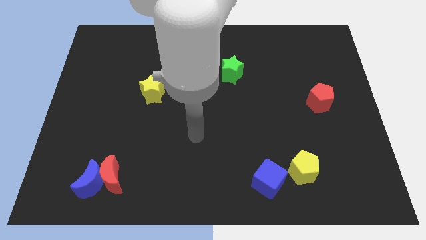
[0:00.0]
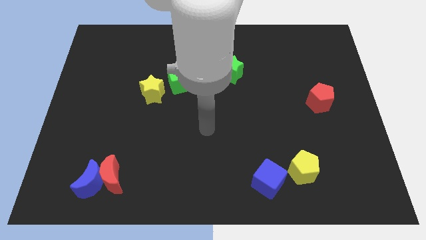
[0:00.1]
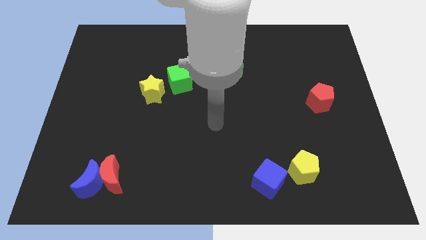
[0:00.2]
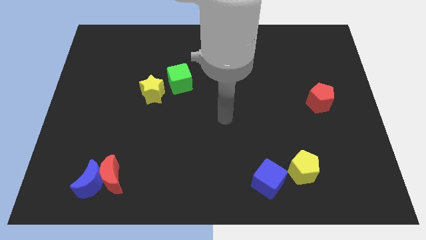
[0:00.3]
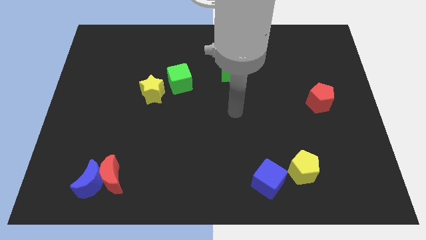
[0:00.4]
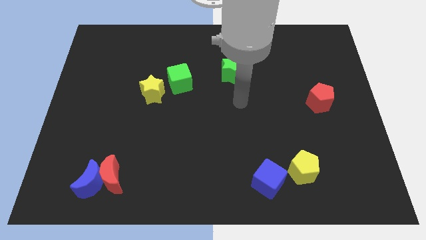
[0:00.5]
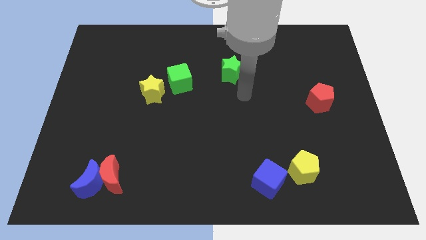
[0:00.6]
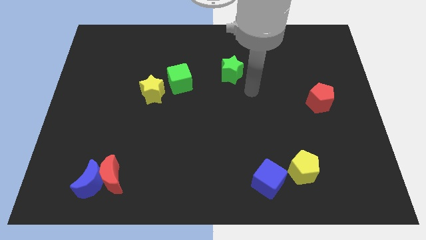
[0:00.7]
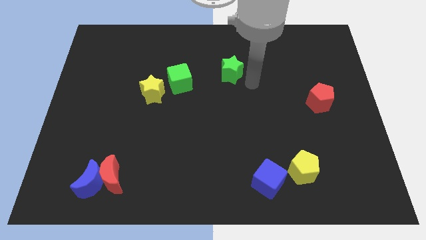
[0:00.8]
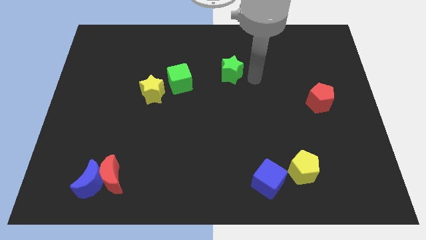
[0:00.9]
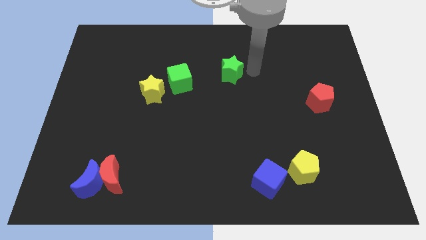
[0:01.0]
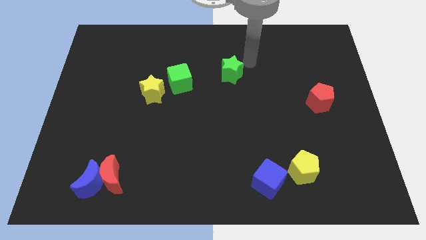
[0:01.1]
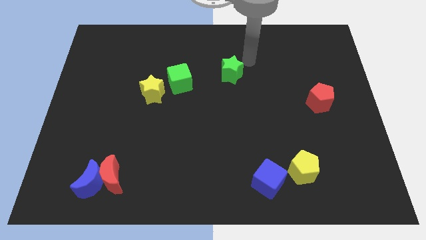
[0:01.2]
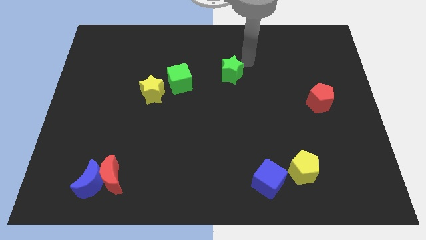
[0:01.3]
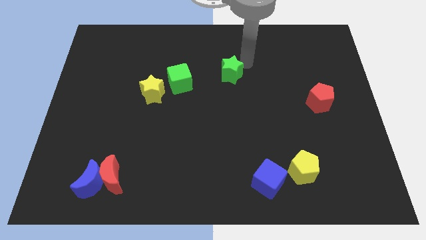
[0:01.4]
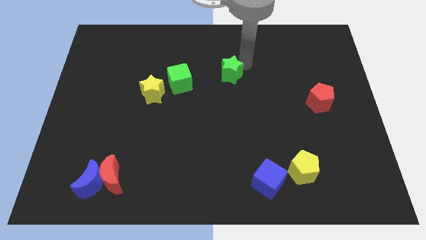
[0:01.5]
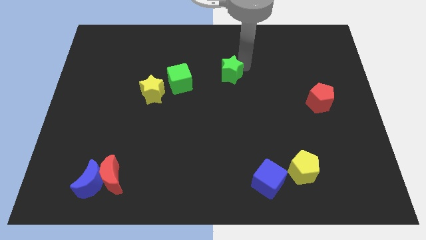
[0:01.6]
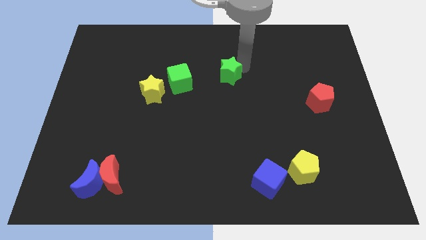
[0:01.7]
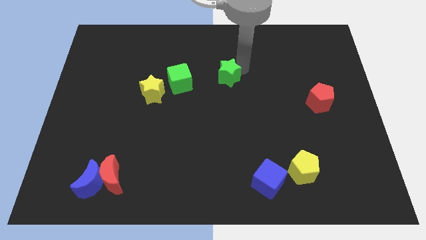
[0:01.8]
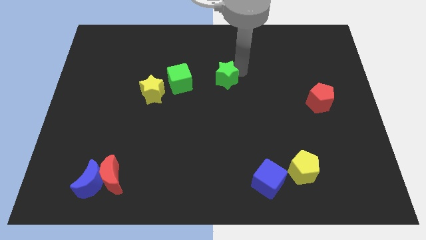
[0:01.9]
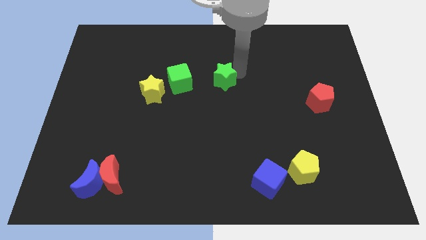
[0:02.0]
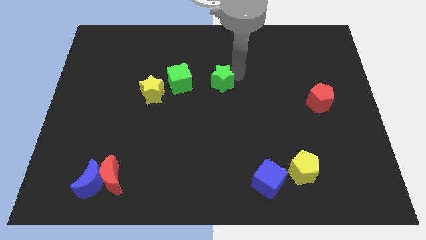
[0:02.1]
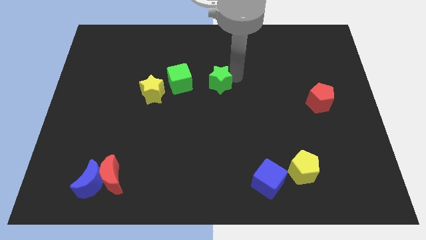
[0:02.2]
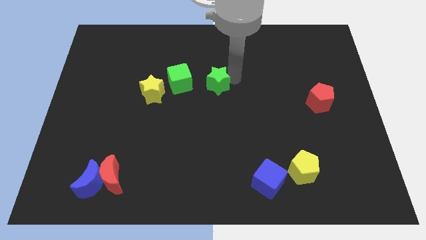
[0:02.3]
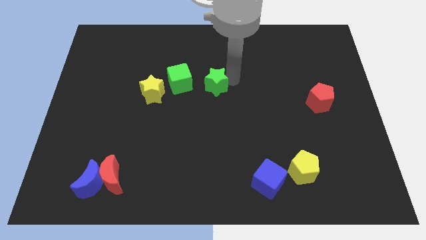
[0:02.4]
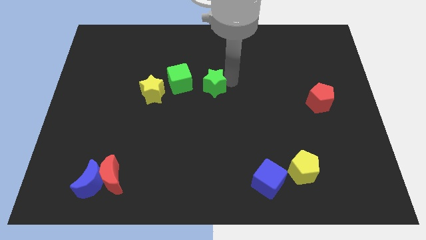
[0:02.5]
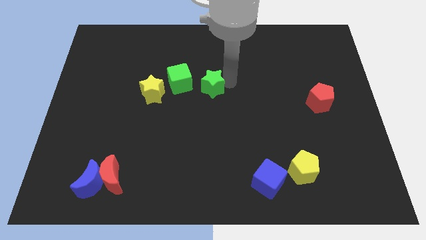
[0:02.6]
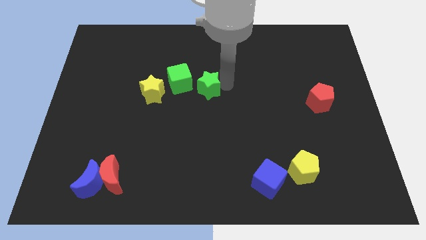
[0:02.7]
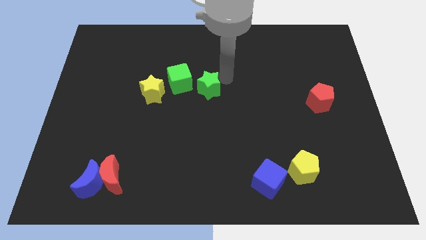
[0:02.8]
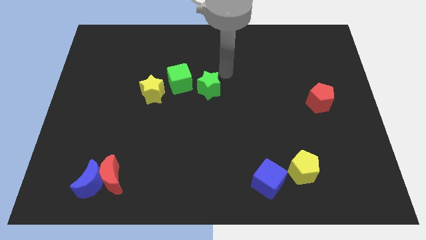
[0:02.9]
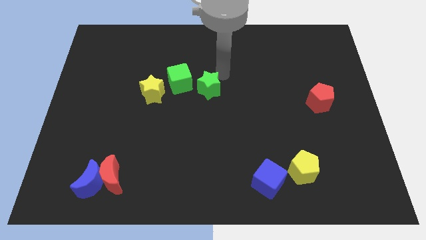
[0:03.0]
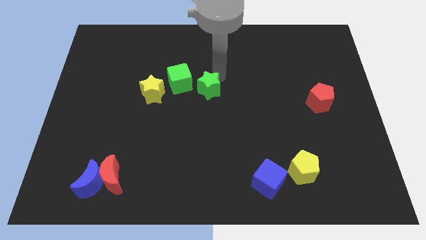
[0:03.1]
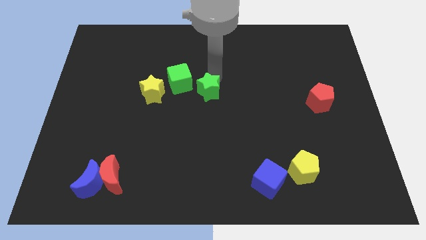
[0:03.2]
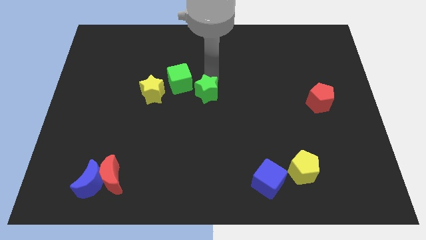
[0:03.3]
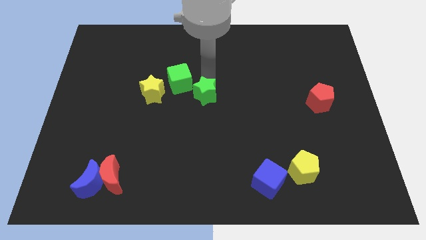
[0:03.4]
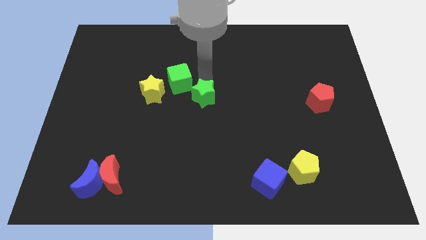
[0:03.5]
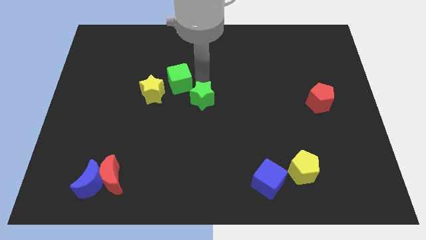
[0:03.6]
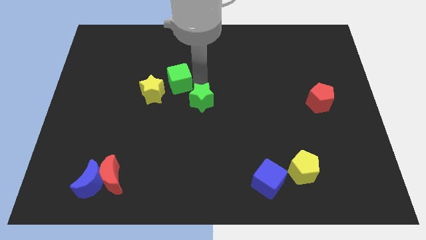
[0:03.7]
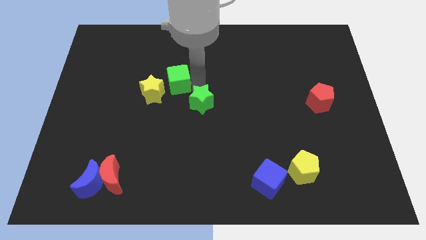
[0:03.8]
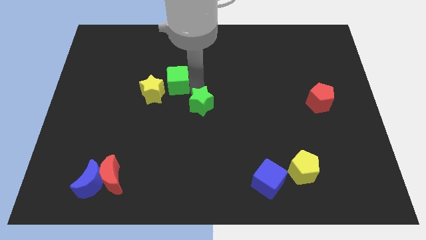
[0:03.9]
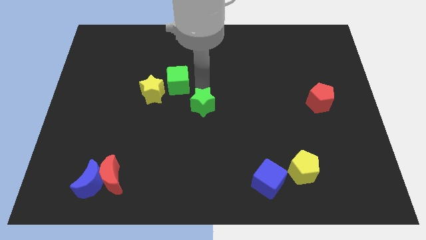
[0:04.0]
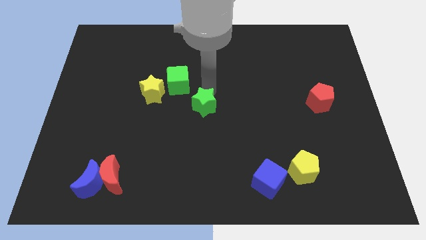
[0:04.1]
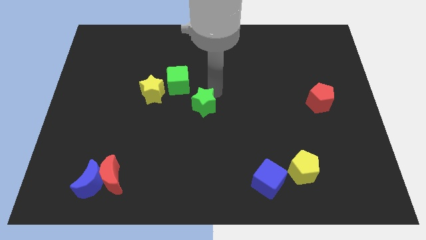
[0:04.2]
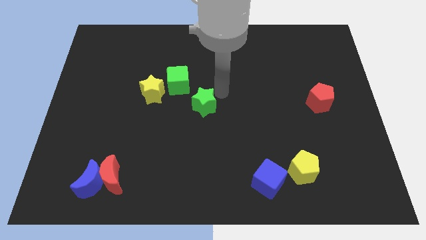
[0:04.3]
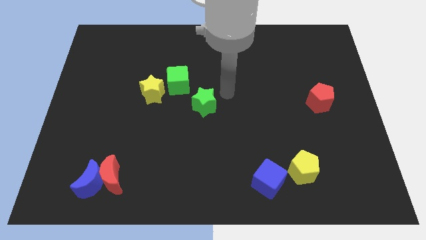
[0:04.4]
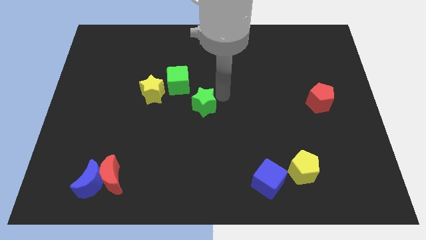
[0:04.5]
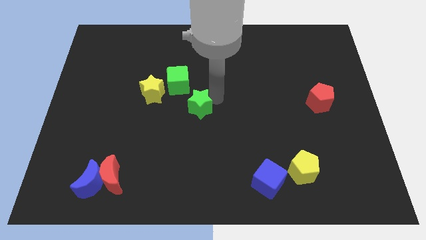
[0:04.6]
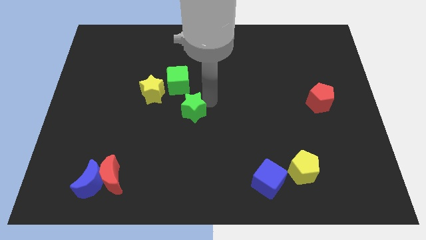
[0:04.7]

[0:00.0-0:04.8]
put the green star to the bottom side of the green cube

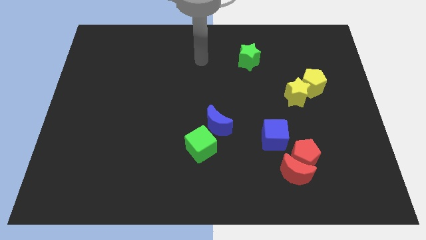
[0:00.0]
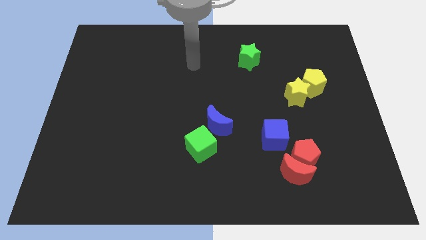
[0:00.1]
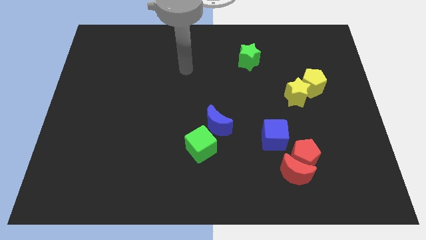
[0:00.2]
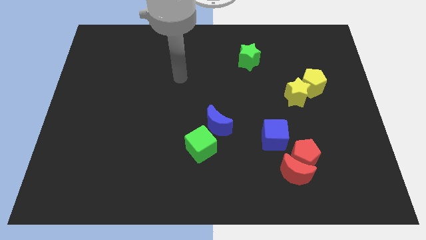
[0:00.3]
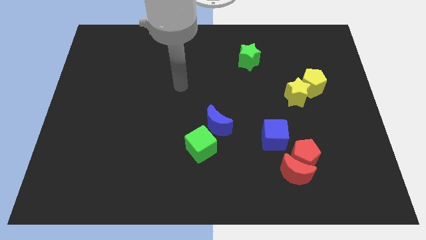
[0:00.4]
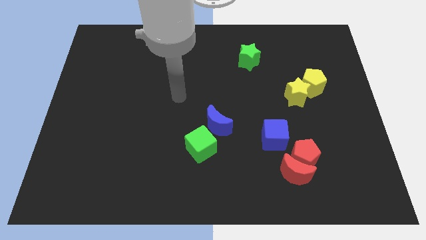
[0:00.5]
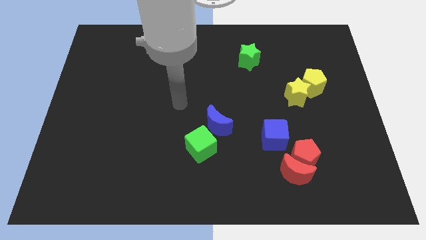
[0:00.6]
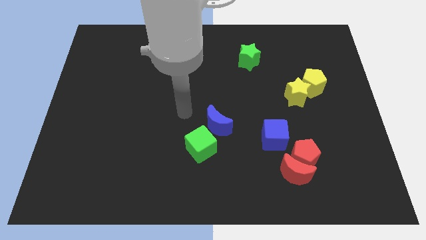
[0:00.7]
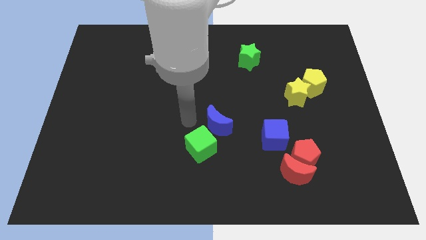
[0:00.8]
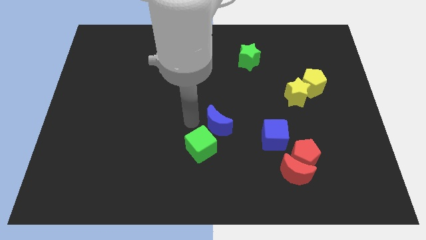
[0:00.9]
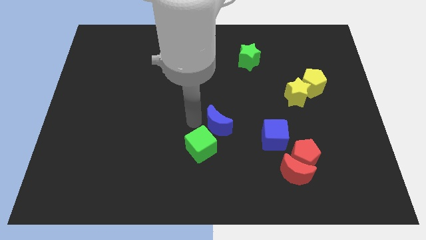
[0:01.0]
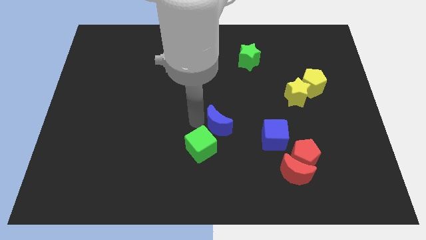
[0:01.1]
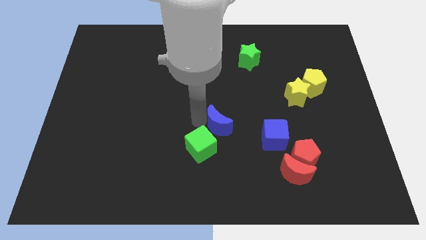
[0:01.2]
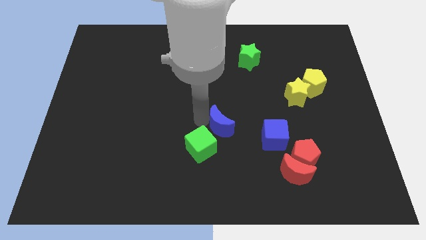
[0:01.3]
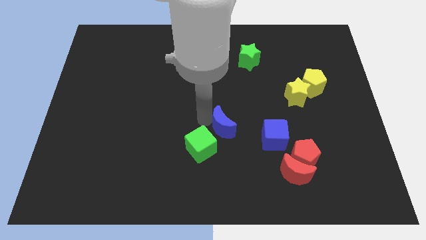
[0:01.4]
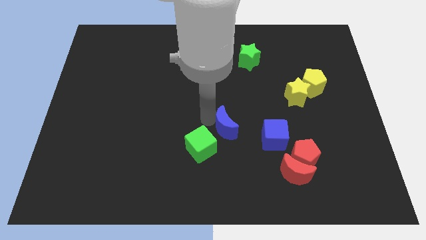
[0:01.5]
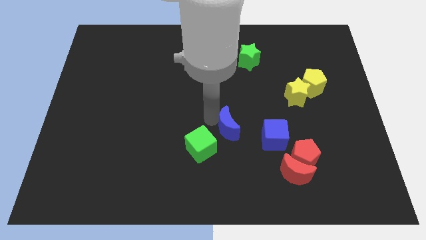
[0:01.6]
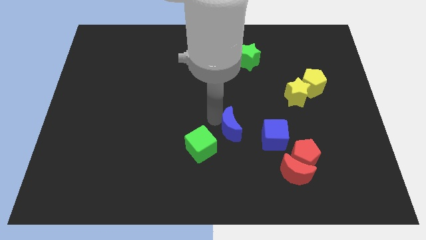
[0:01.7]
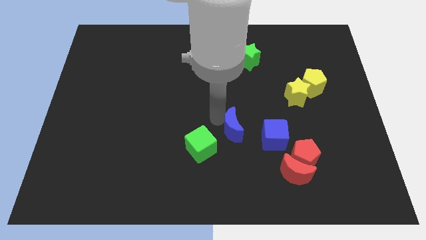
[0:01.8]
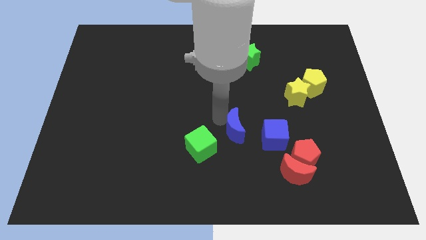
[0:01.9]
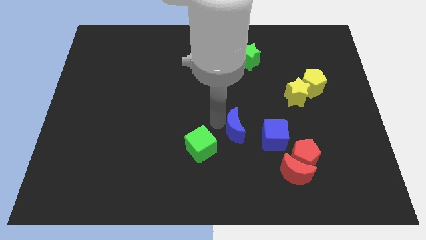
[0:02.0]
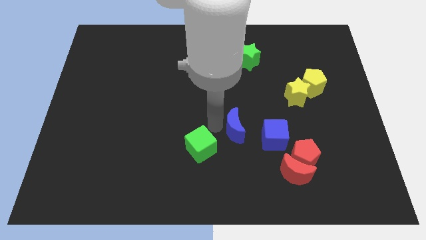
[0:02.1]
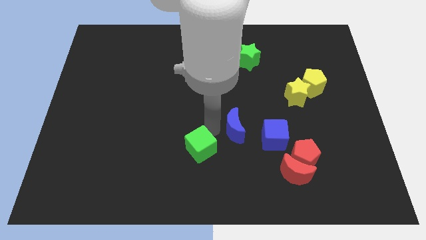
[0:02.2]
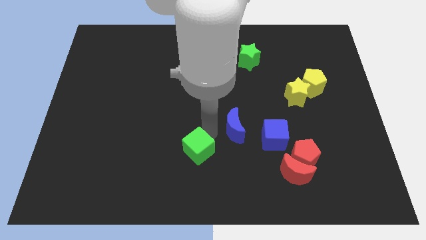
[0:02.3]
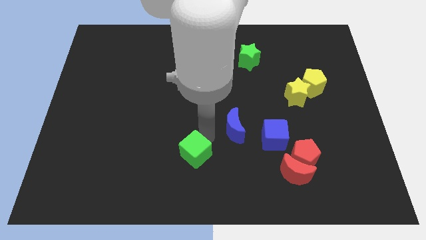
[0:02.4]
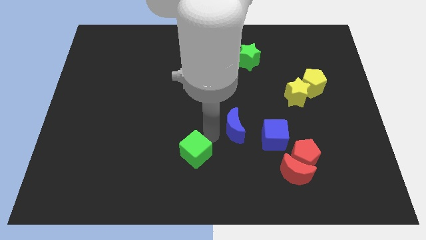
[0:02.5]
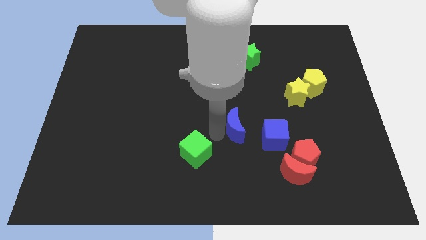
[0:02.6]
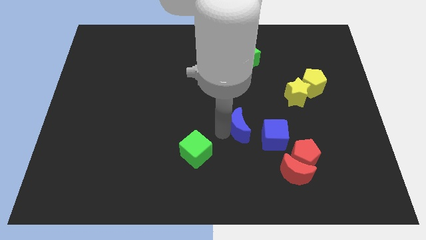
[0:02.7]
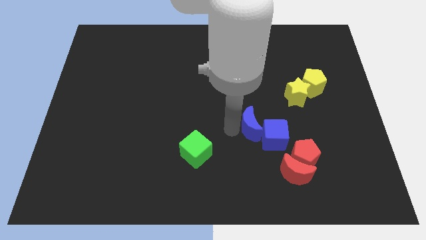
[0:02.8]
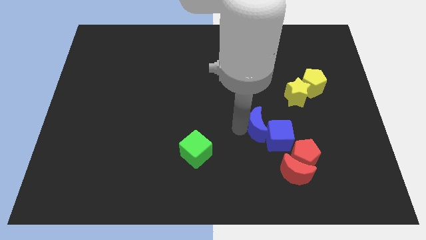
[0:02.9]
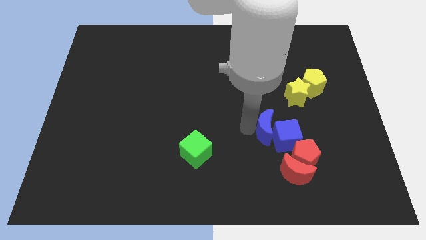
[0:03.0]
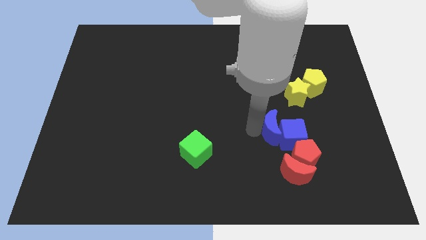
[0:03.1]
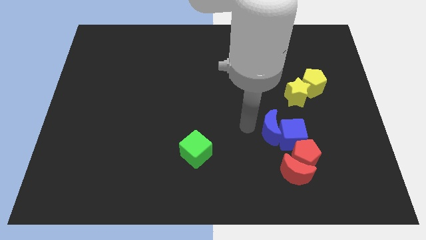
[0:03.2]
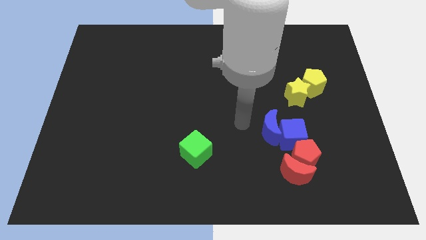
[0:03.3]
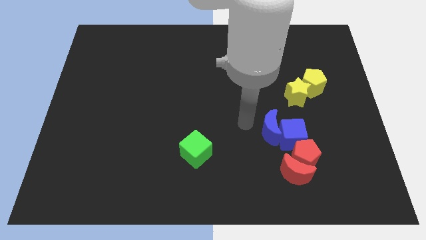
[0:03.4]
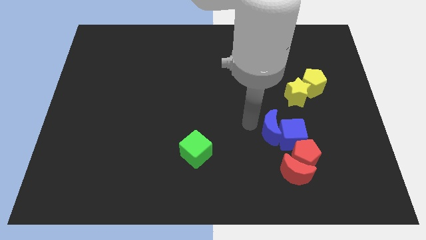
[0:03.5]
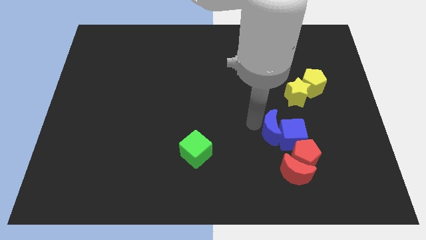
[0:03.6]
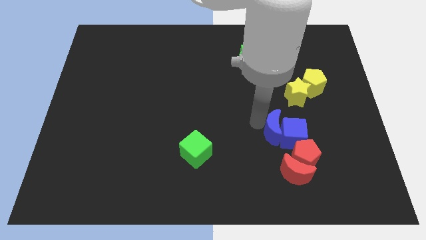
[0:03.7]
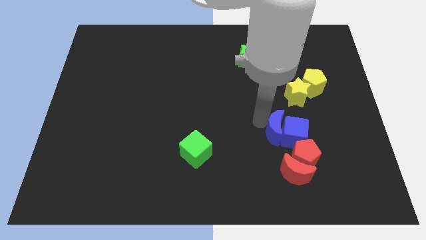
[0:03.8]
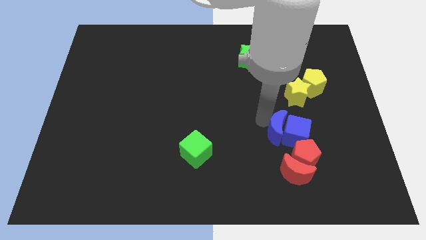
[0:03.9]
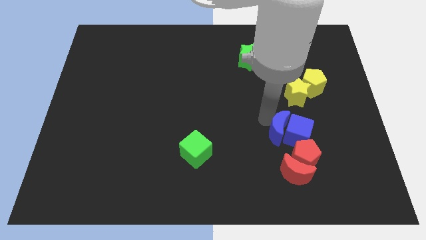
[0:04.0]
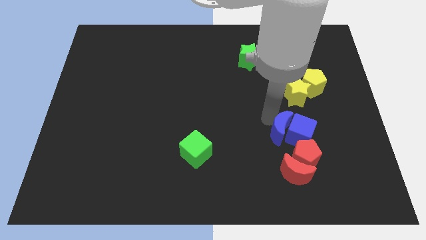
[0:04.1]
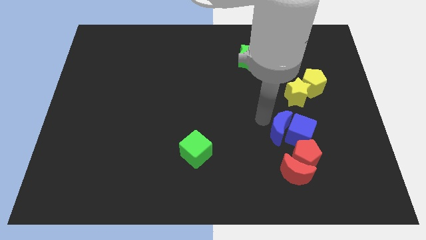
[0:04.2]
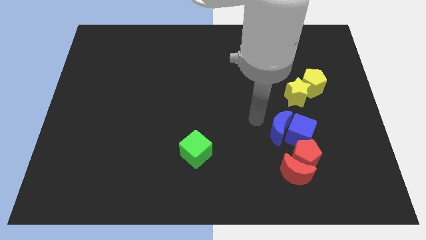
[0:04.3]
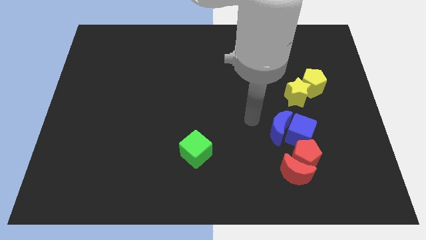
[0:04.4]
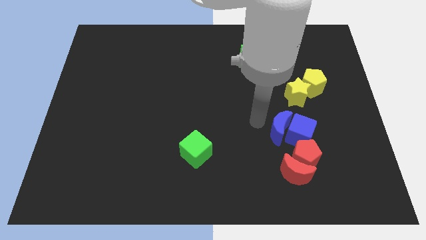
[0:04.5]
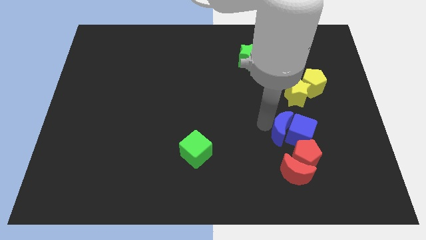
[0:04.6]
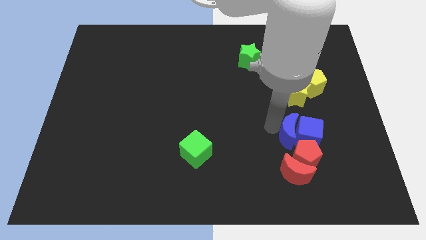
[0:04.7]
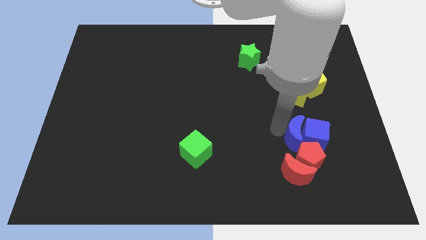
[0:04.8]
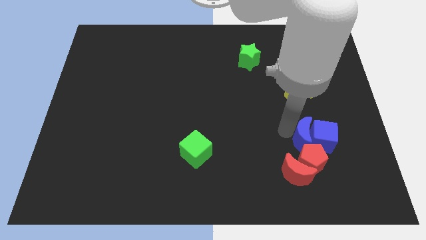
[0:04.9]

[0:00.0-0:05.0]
put the blue moon to the top right side of the red moon
